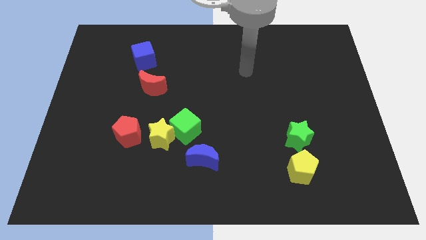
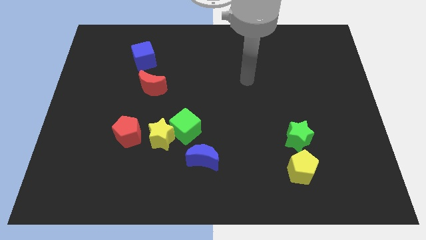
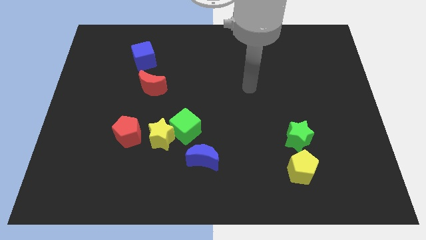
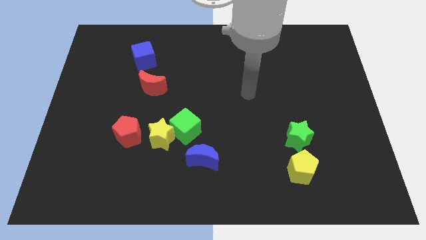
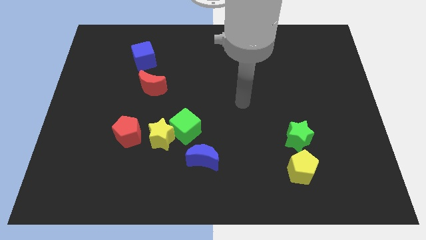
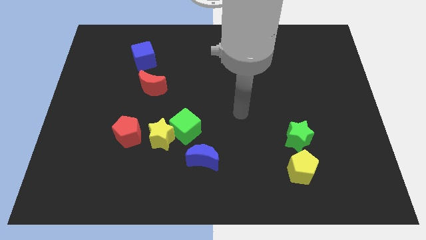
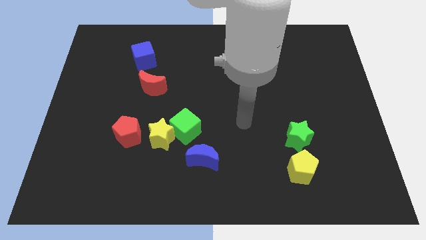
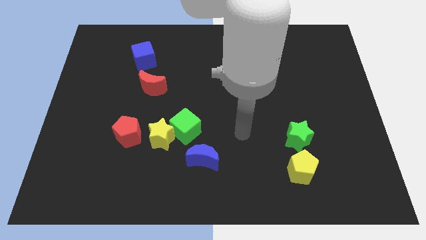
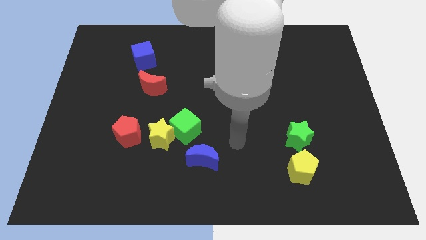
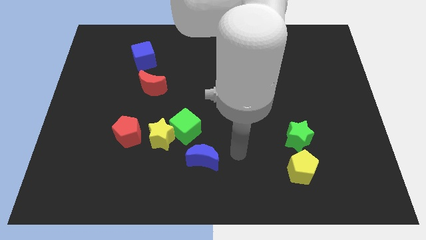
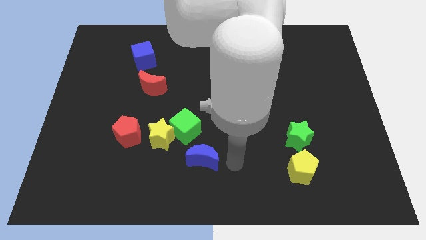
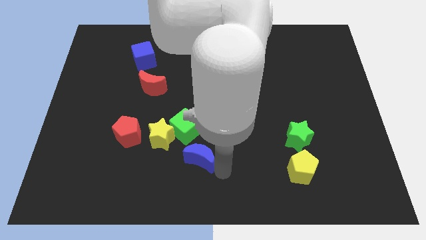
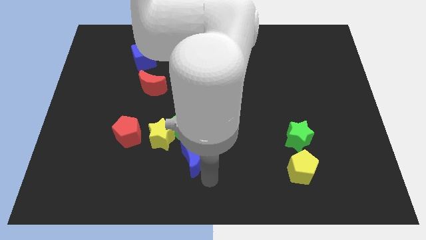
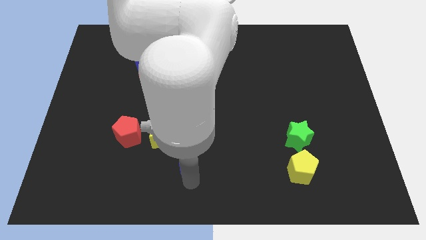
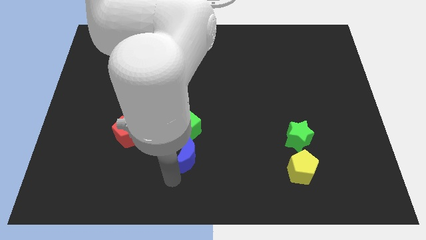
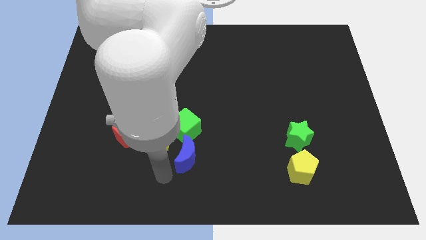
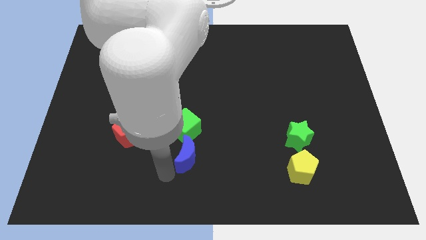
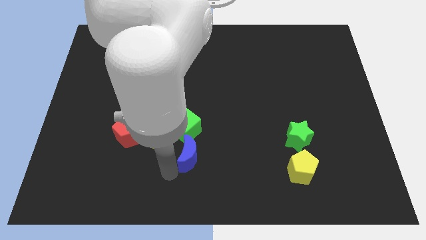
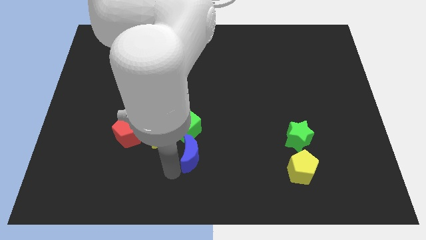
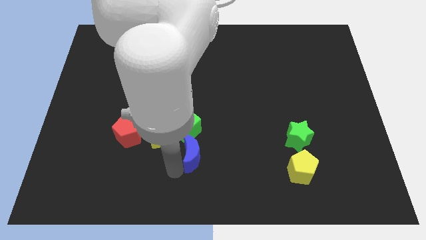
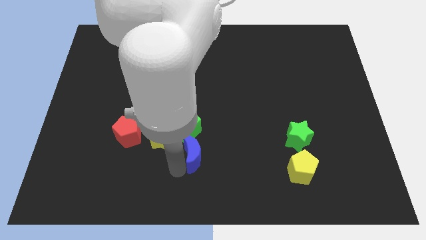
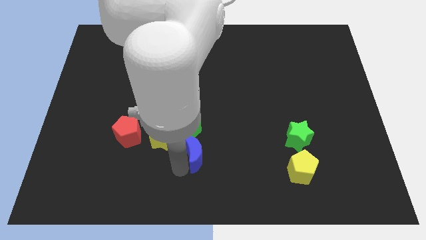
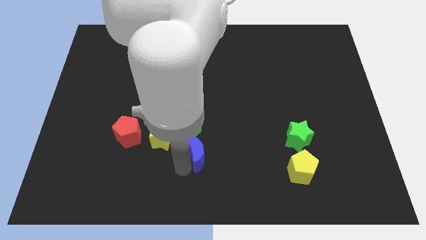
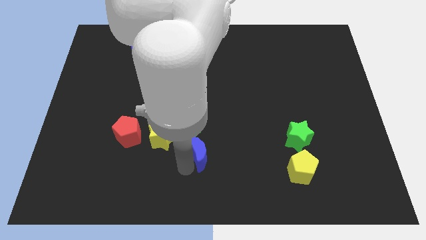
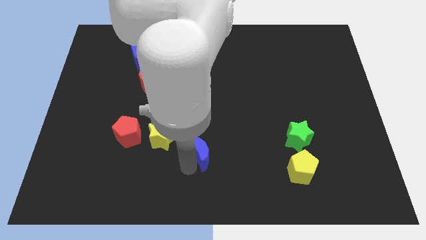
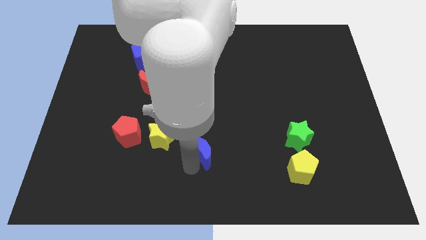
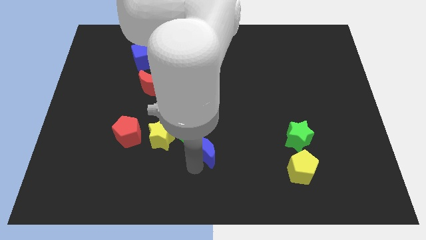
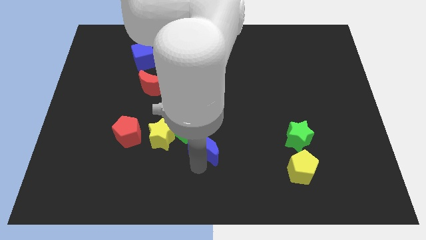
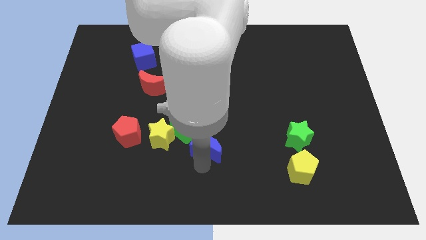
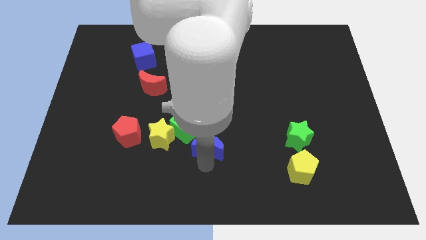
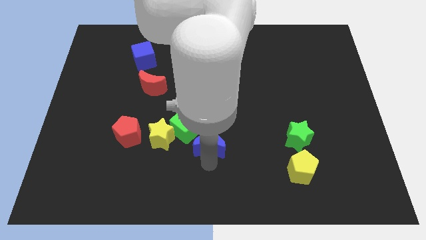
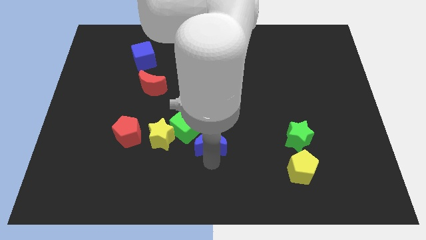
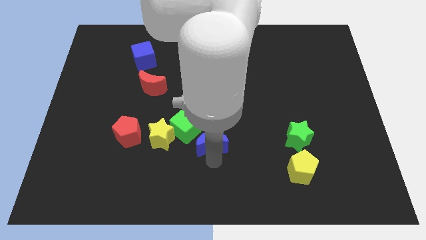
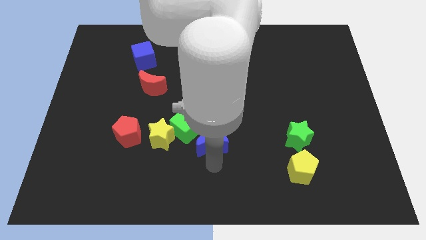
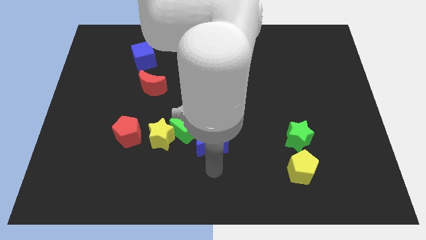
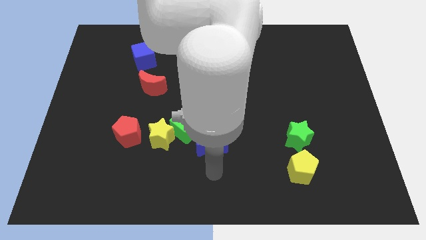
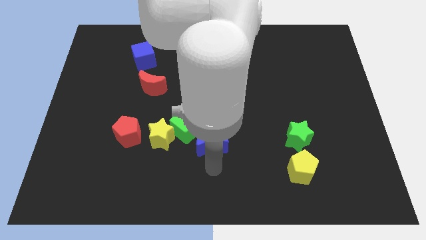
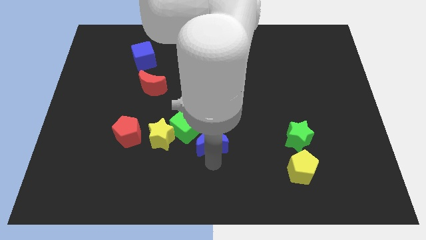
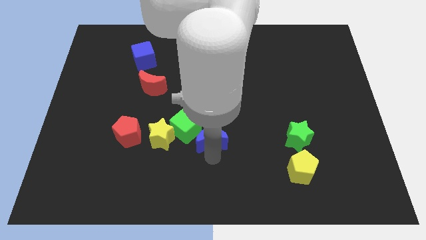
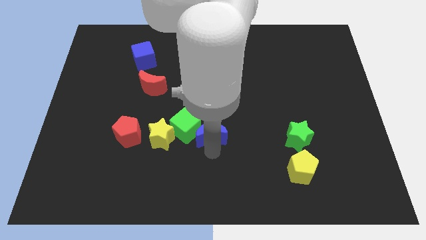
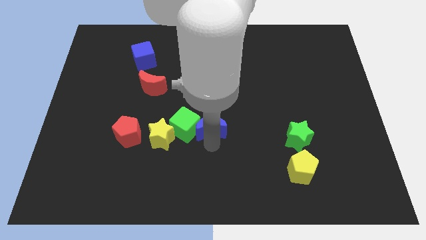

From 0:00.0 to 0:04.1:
move the blue moon upwards a bit

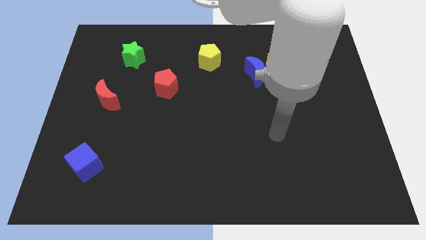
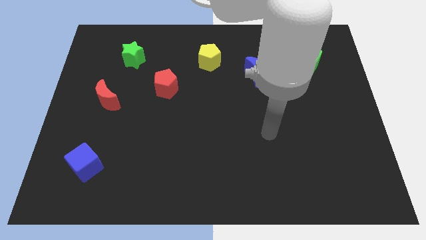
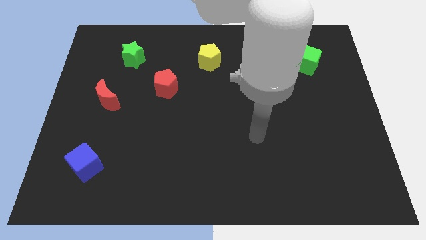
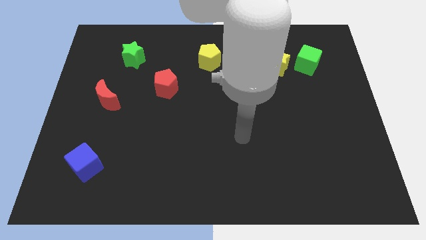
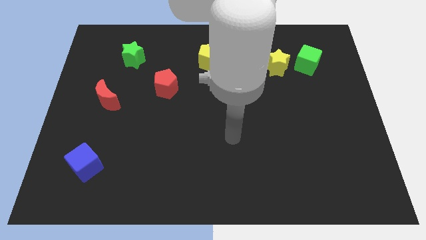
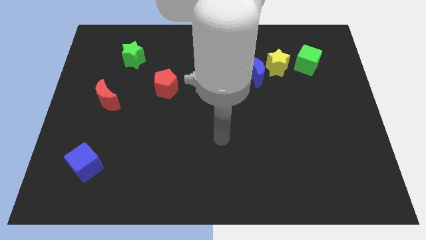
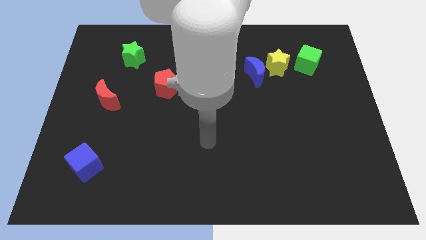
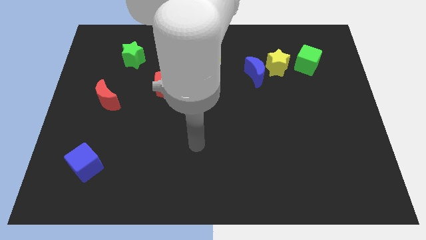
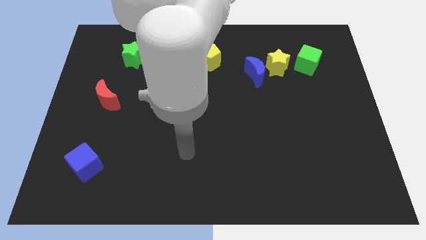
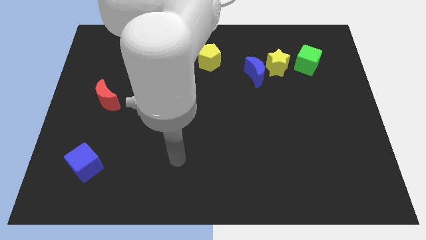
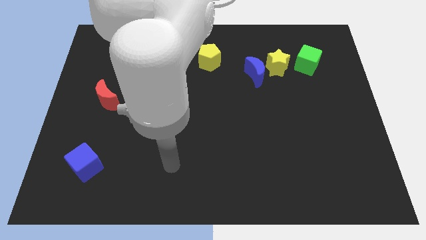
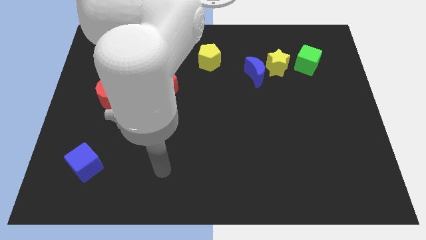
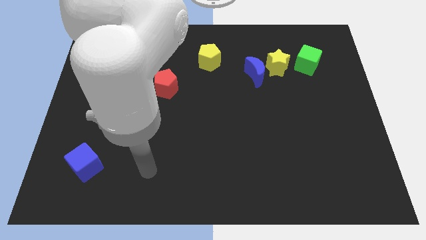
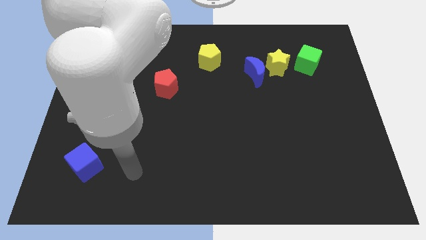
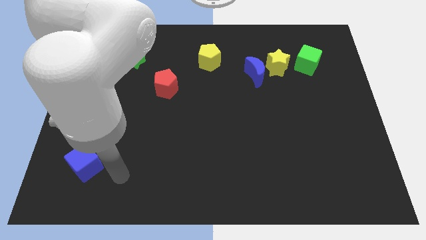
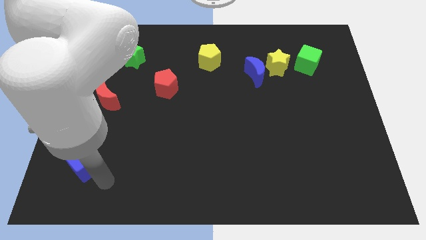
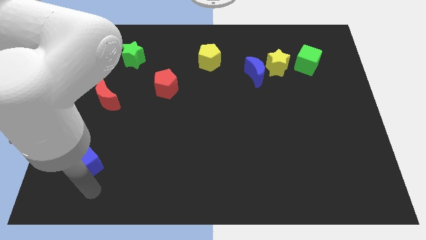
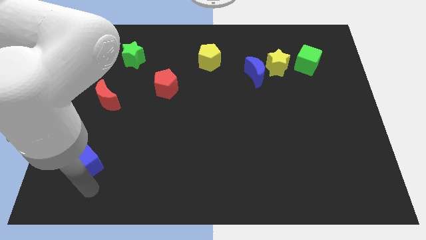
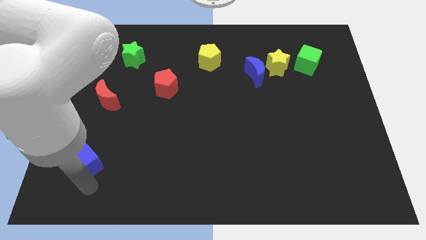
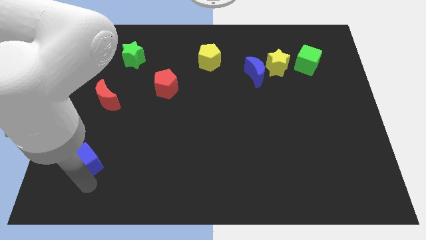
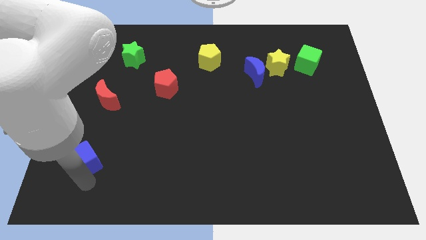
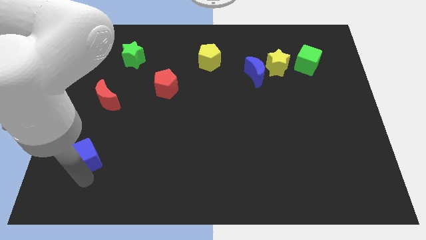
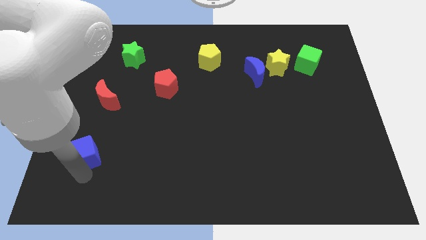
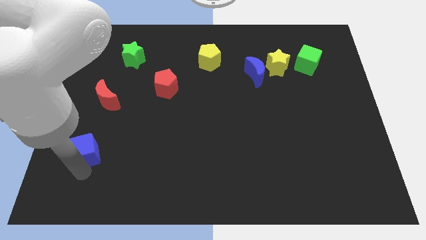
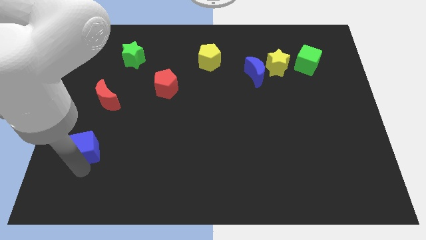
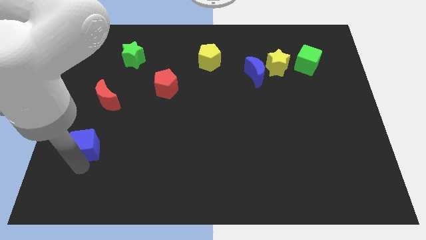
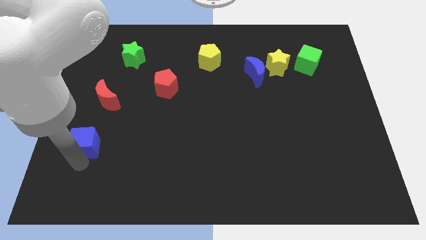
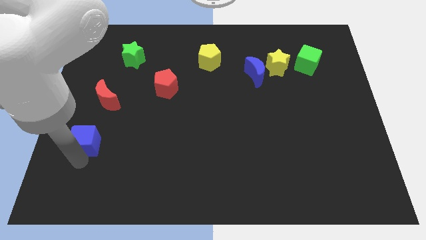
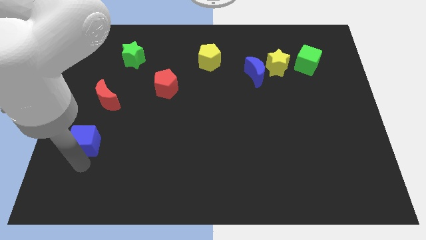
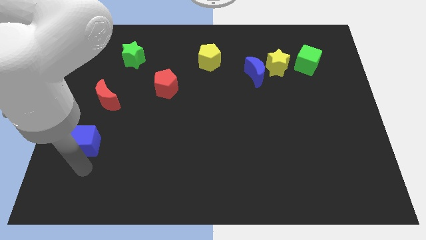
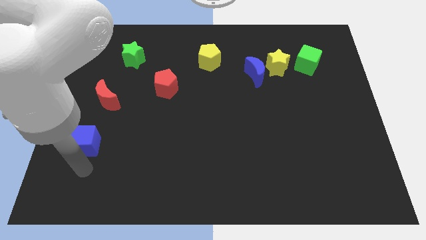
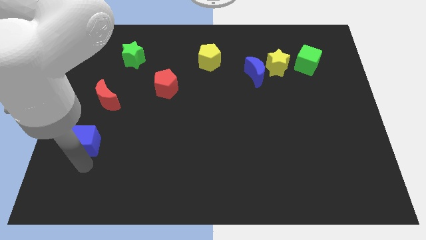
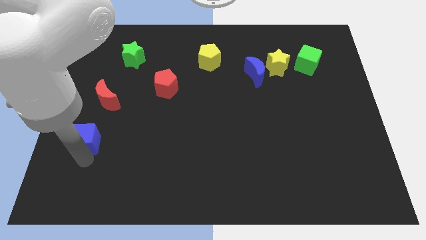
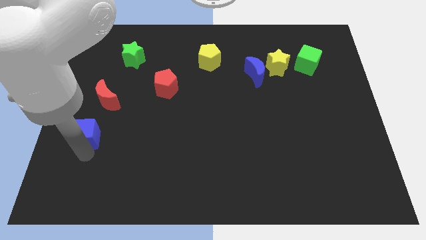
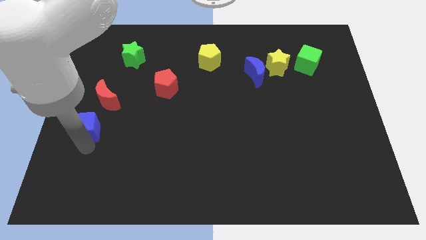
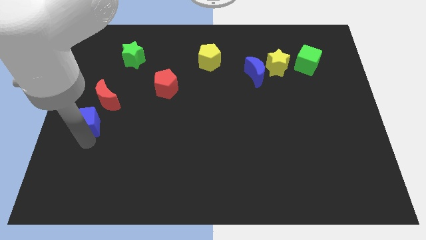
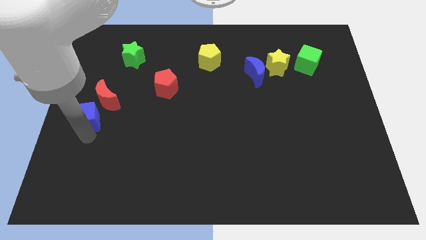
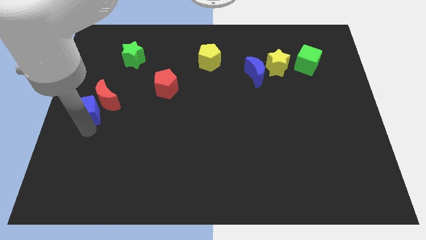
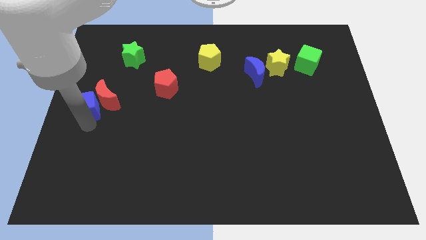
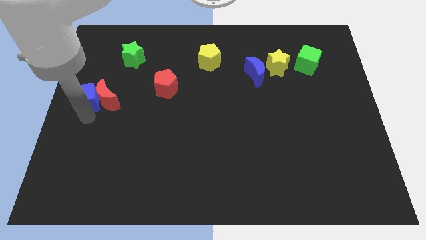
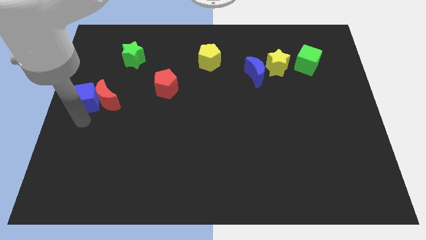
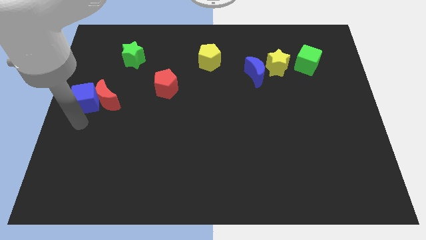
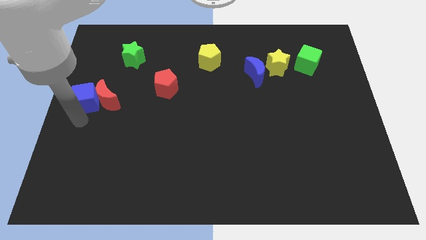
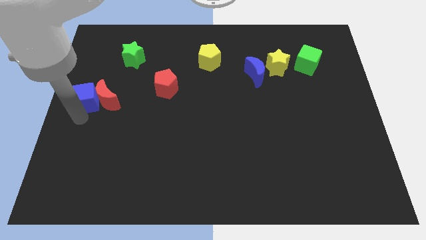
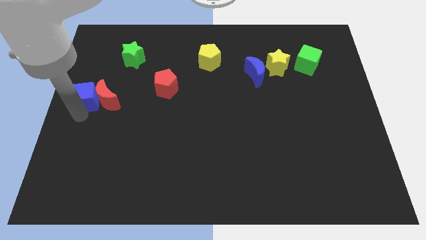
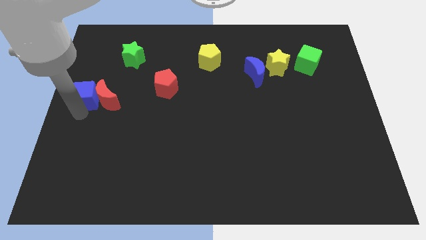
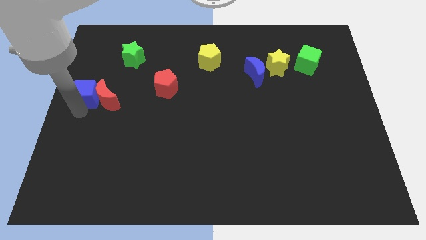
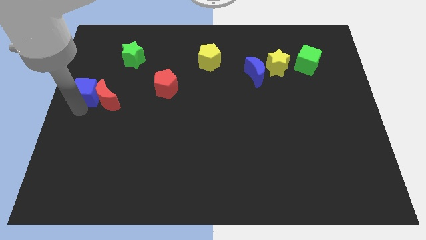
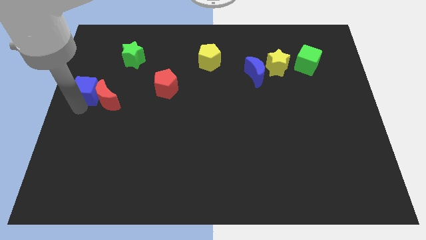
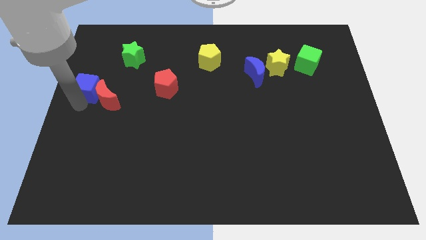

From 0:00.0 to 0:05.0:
move the blue cube up
